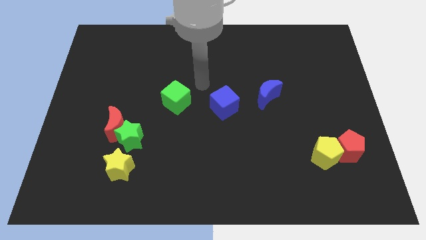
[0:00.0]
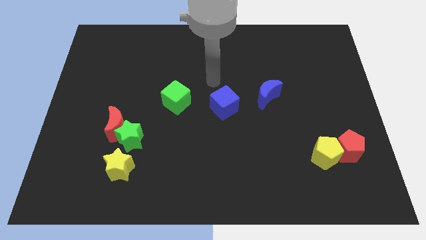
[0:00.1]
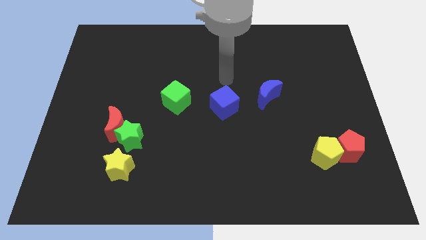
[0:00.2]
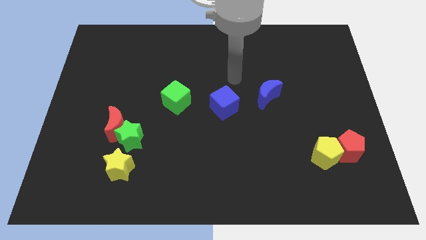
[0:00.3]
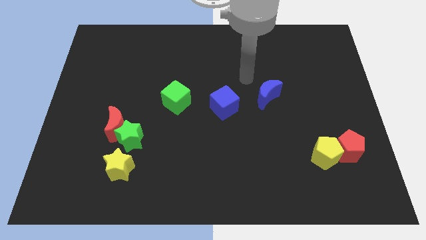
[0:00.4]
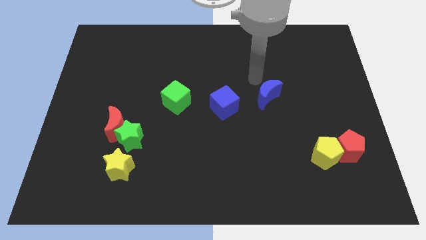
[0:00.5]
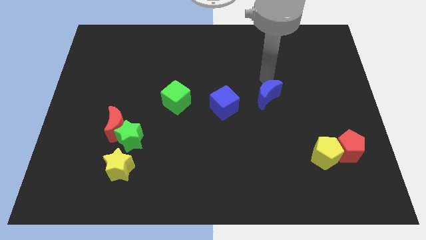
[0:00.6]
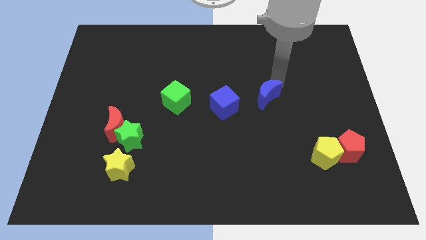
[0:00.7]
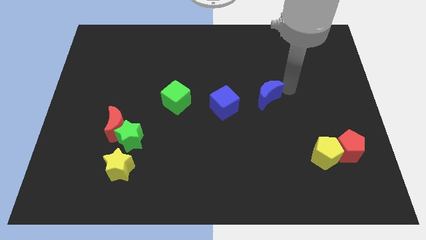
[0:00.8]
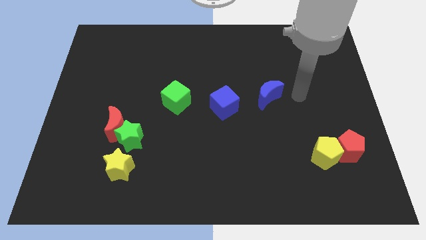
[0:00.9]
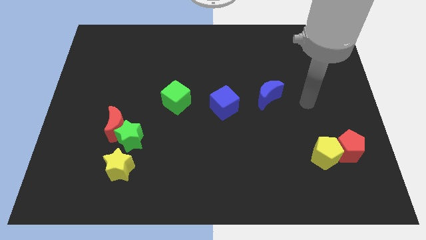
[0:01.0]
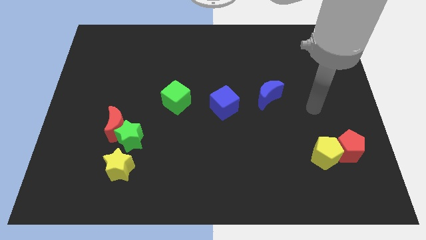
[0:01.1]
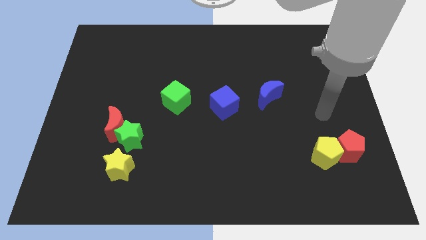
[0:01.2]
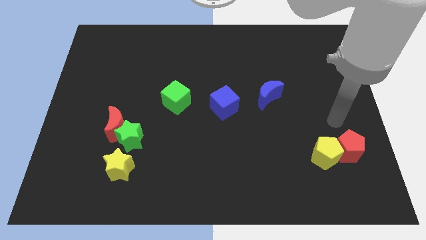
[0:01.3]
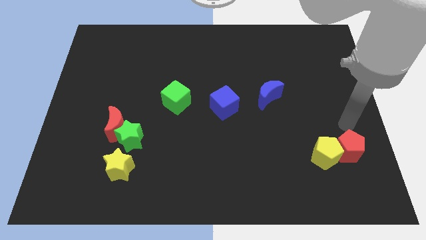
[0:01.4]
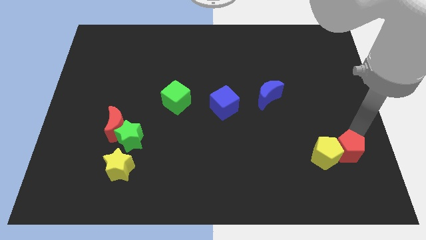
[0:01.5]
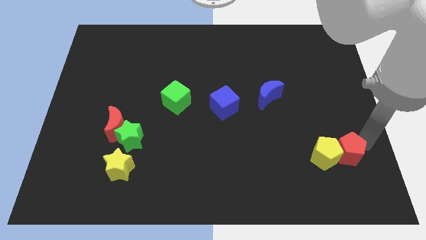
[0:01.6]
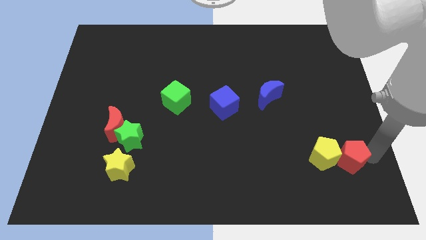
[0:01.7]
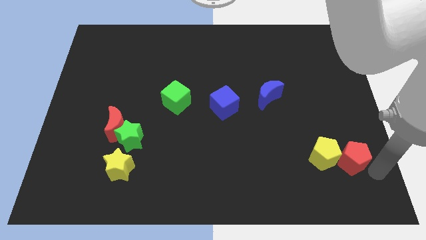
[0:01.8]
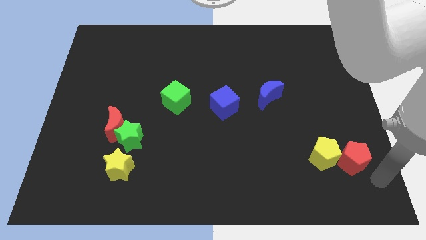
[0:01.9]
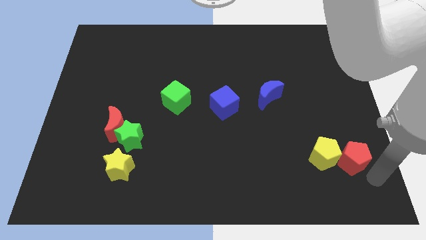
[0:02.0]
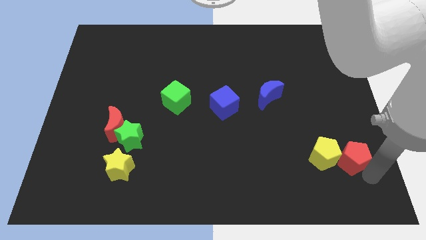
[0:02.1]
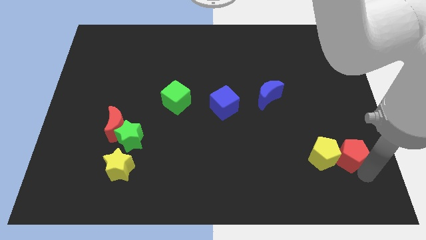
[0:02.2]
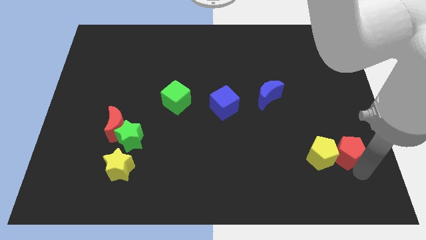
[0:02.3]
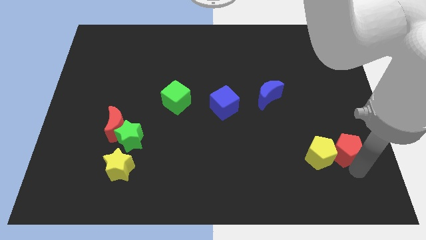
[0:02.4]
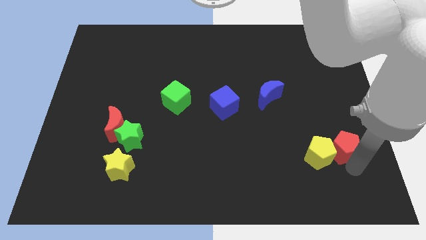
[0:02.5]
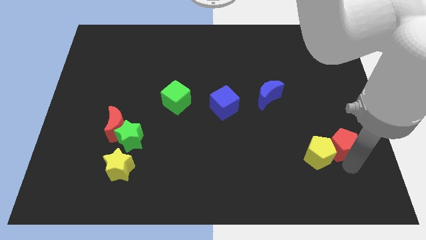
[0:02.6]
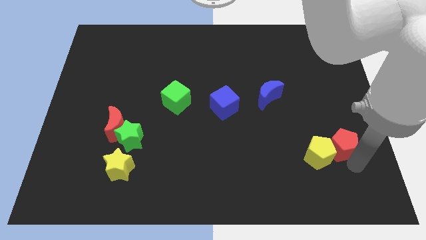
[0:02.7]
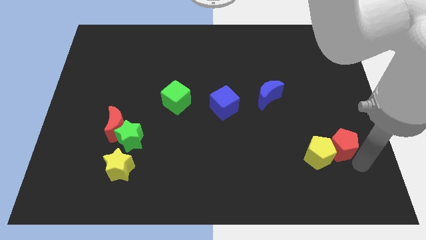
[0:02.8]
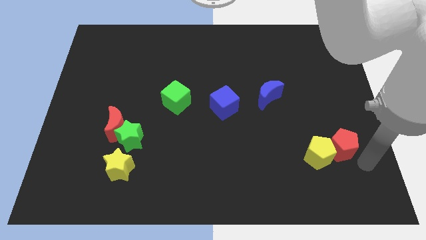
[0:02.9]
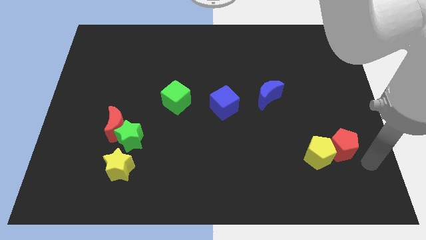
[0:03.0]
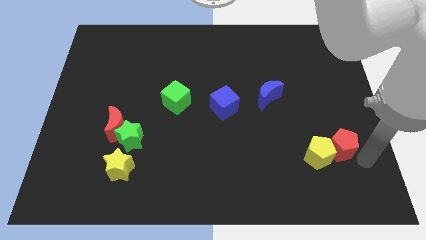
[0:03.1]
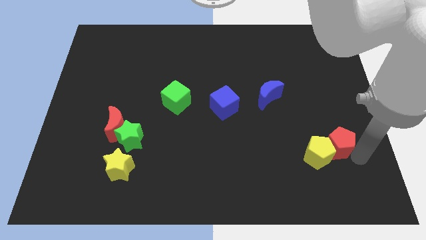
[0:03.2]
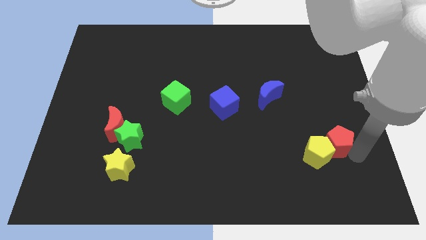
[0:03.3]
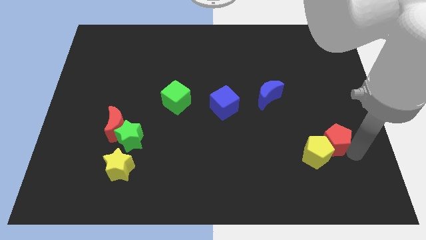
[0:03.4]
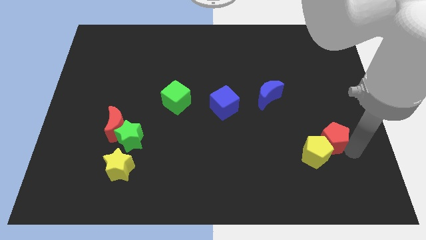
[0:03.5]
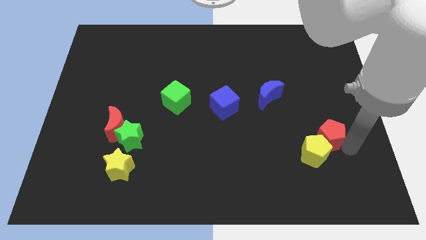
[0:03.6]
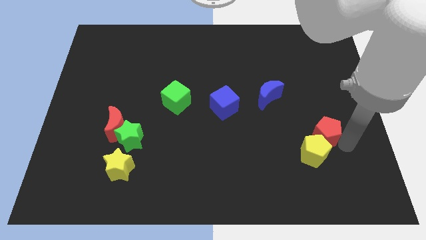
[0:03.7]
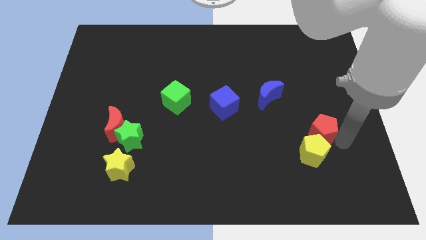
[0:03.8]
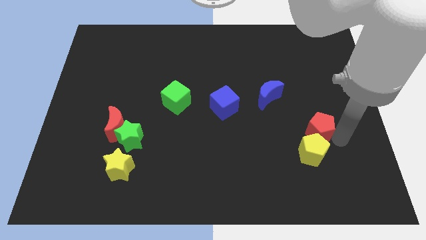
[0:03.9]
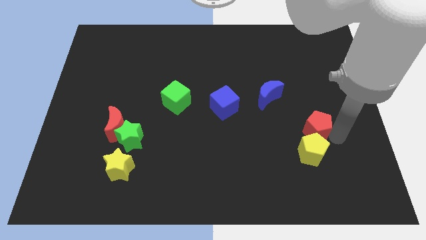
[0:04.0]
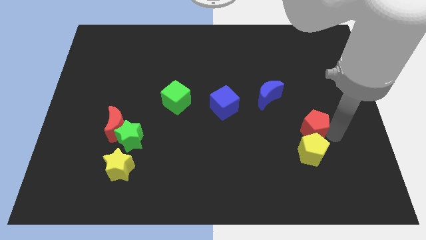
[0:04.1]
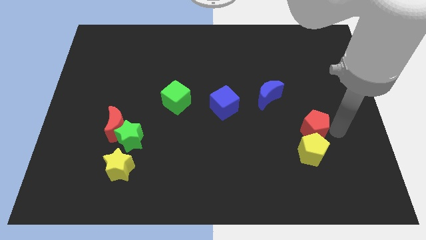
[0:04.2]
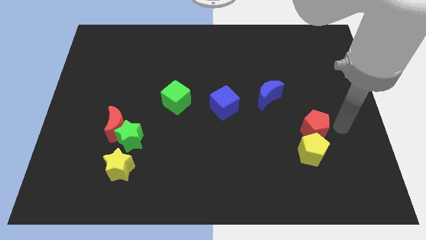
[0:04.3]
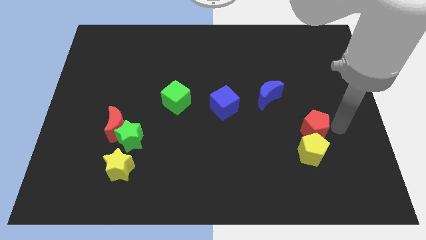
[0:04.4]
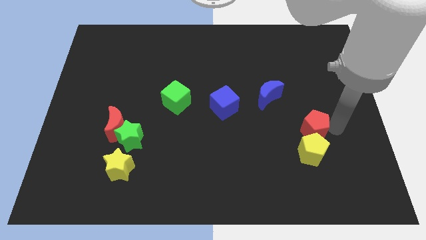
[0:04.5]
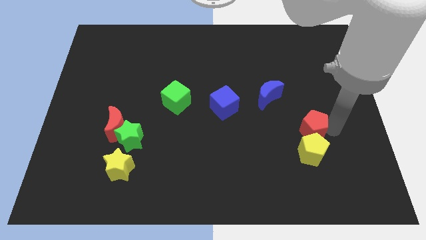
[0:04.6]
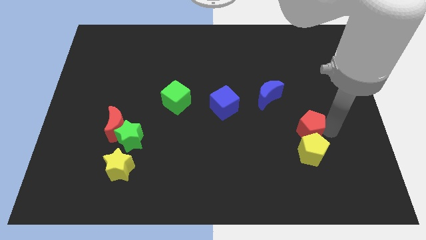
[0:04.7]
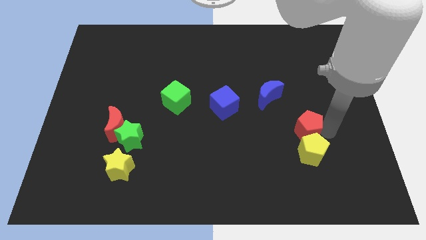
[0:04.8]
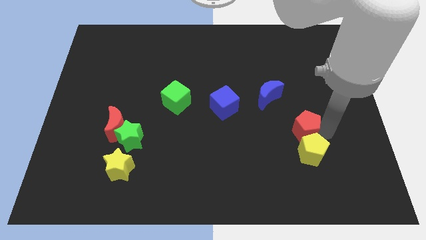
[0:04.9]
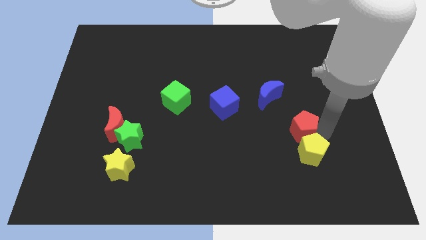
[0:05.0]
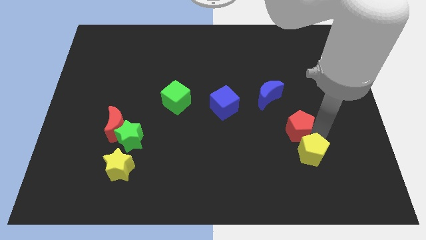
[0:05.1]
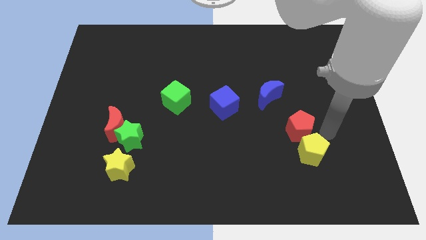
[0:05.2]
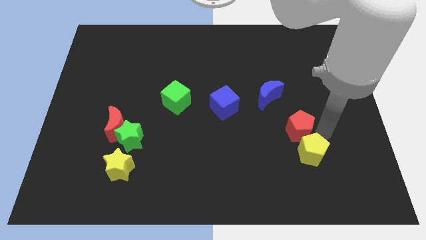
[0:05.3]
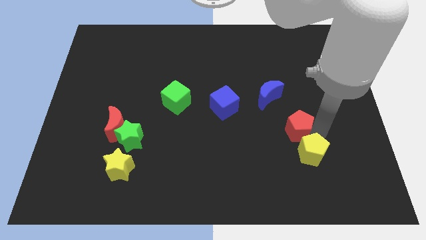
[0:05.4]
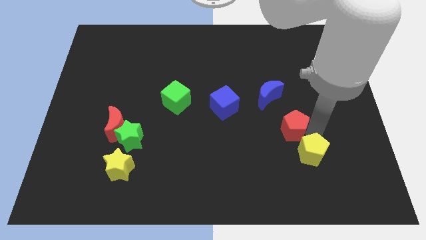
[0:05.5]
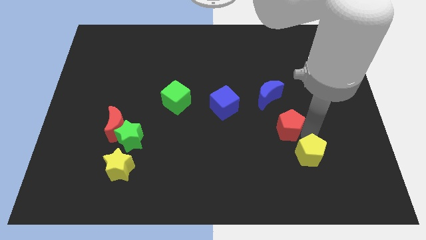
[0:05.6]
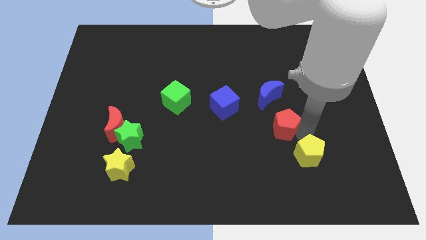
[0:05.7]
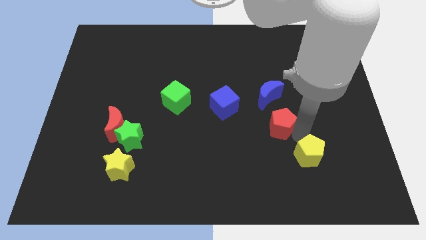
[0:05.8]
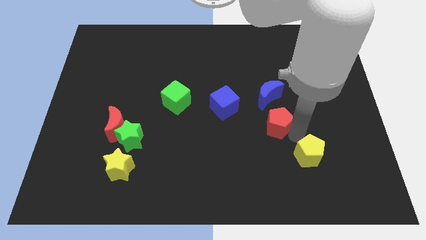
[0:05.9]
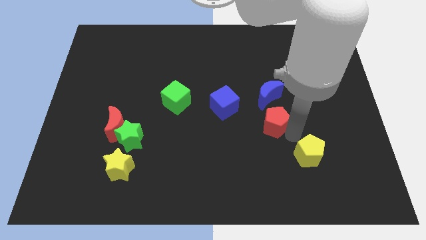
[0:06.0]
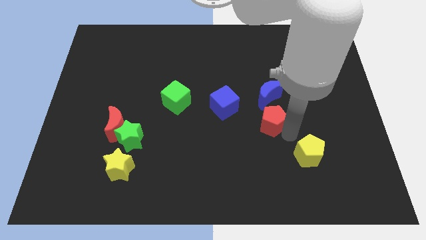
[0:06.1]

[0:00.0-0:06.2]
push the red pentagon to the bottom right side of the blue cube

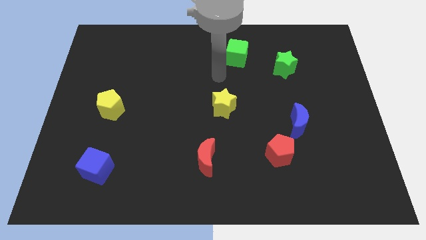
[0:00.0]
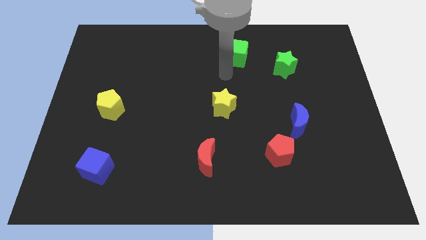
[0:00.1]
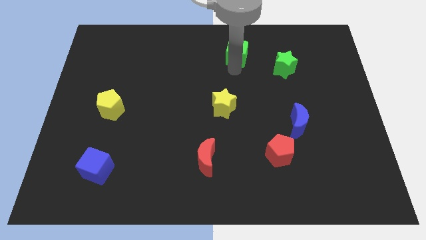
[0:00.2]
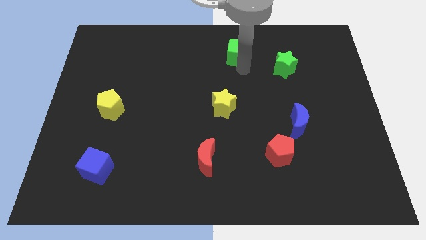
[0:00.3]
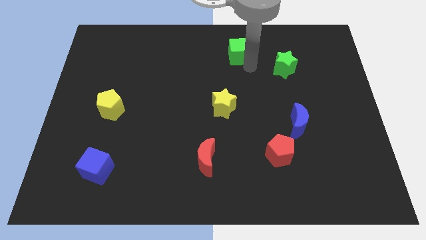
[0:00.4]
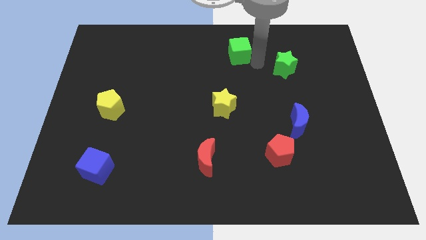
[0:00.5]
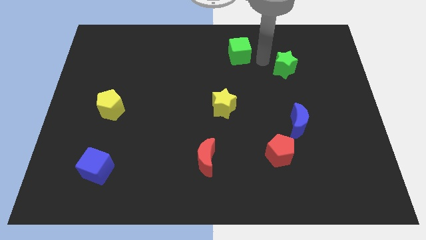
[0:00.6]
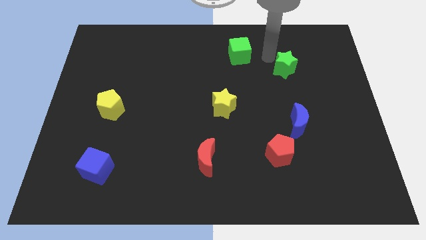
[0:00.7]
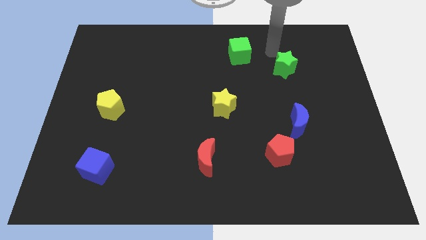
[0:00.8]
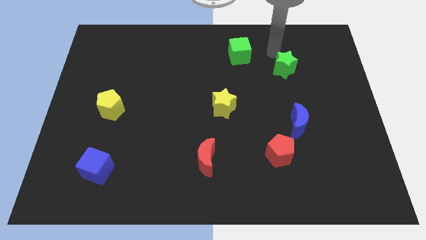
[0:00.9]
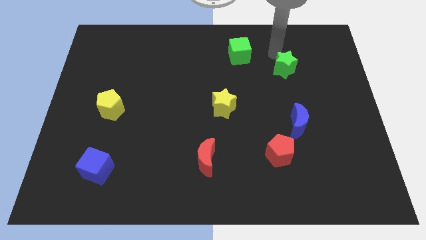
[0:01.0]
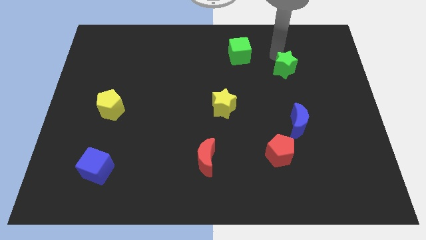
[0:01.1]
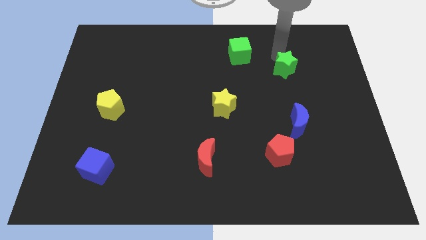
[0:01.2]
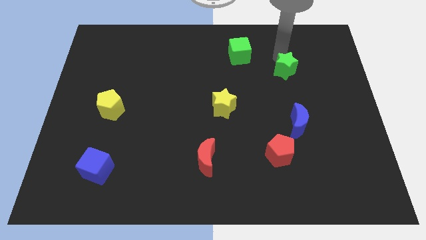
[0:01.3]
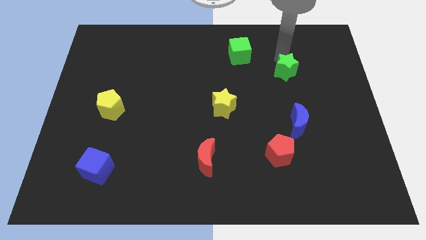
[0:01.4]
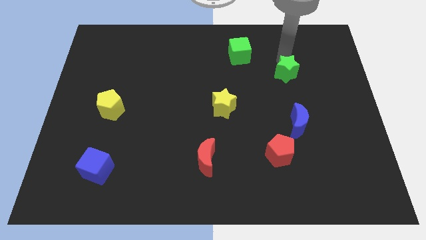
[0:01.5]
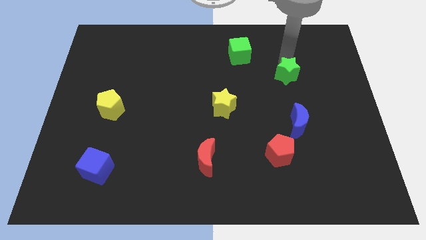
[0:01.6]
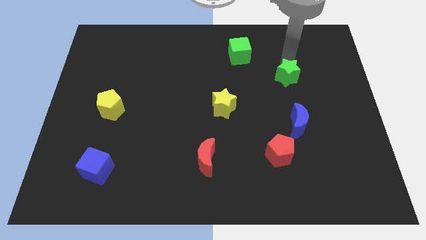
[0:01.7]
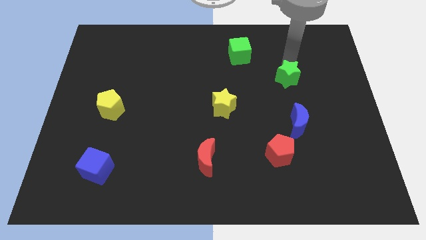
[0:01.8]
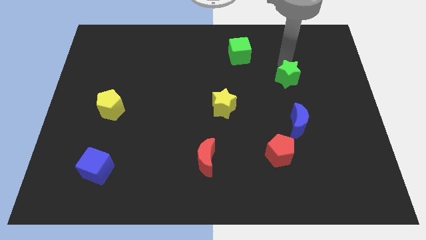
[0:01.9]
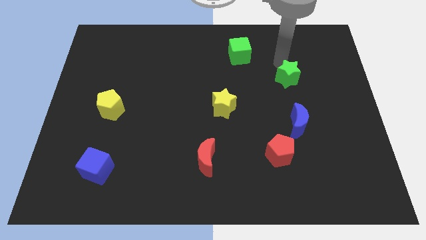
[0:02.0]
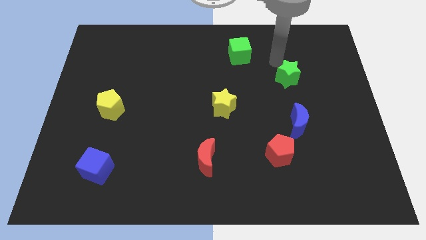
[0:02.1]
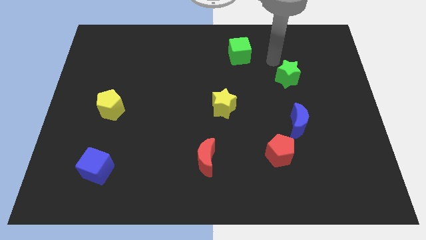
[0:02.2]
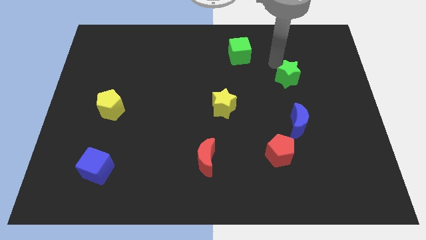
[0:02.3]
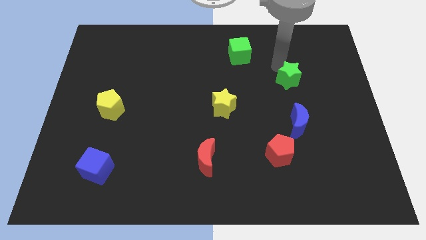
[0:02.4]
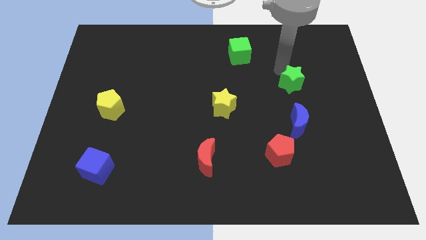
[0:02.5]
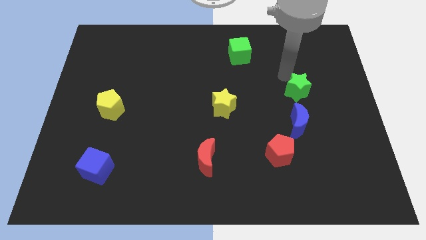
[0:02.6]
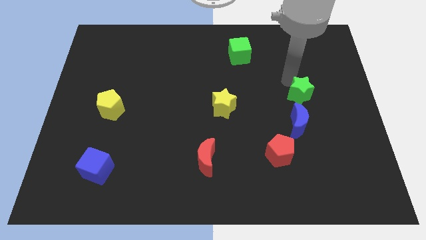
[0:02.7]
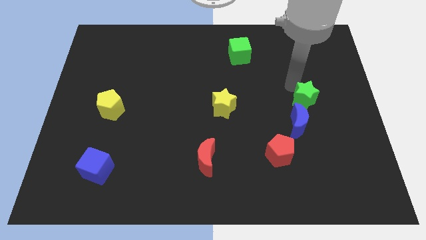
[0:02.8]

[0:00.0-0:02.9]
move the green star diagonally up and to the right of the blue moon
